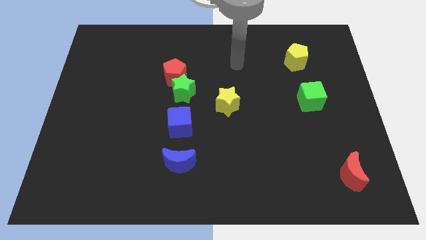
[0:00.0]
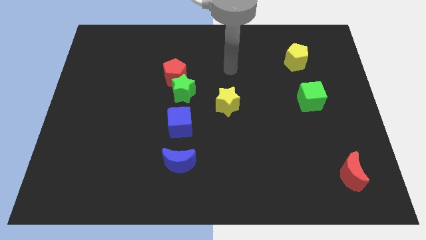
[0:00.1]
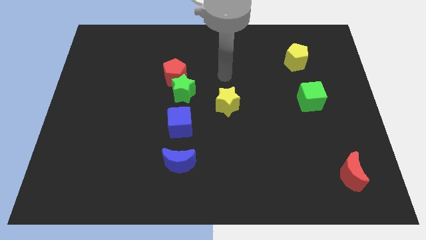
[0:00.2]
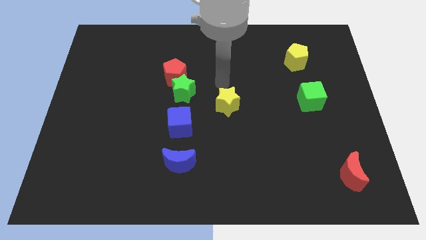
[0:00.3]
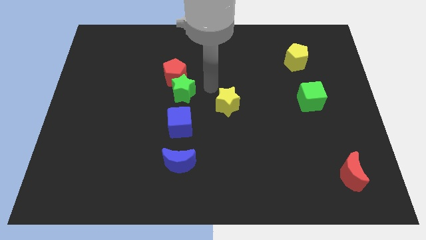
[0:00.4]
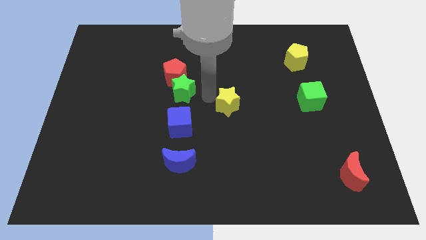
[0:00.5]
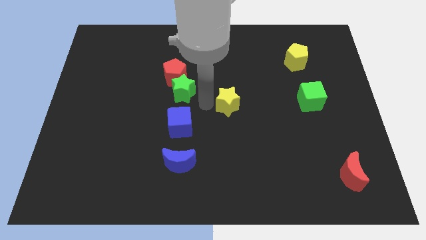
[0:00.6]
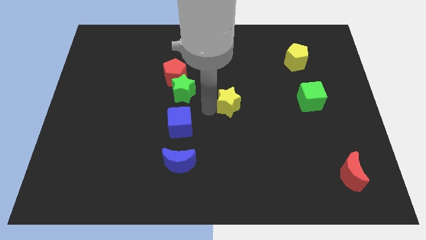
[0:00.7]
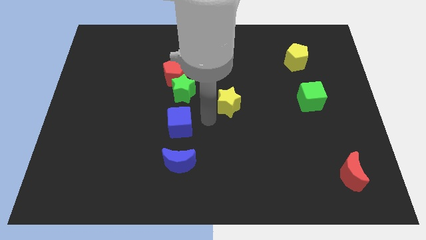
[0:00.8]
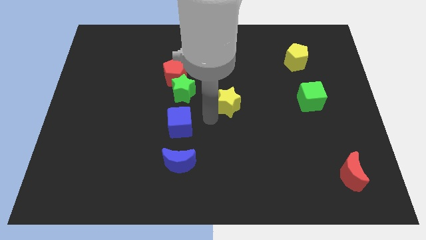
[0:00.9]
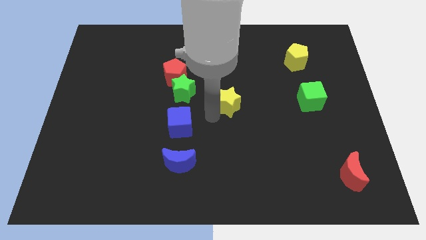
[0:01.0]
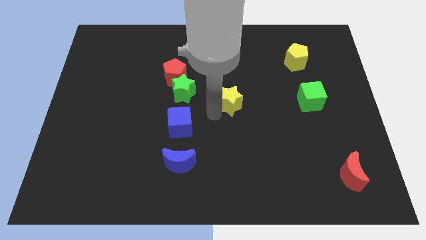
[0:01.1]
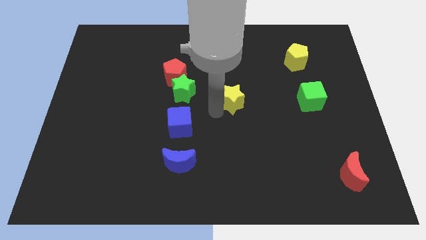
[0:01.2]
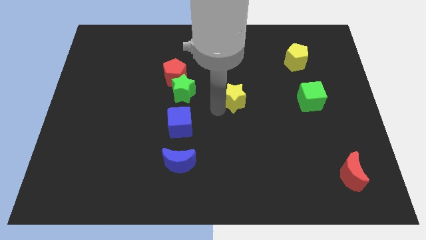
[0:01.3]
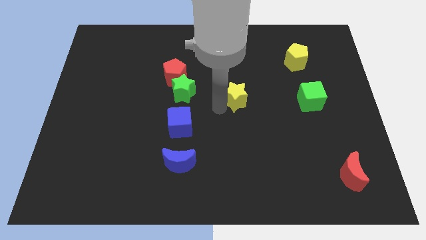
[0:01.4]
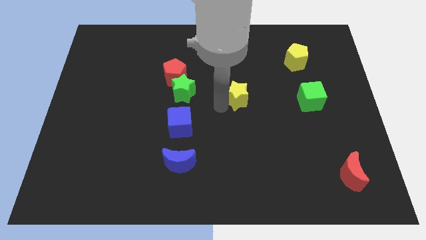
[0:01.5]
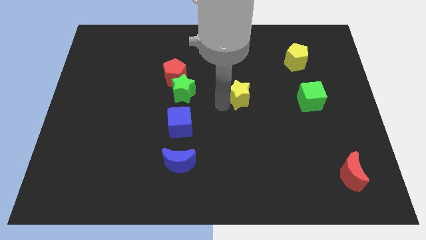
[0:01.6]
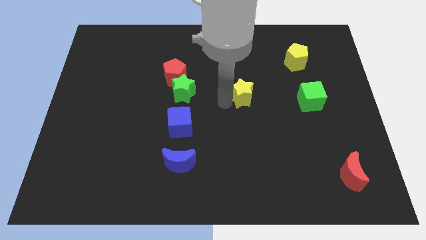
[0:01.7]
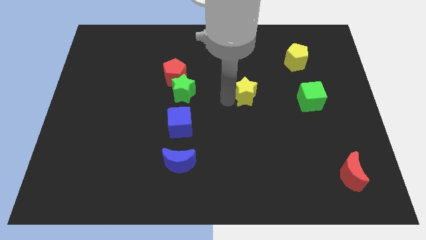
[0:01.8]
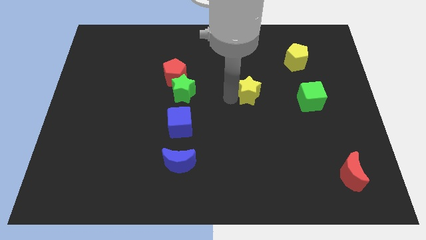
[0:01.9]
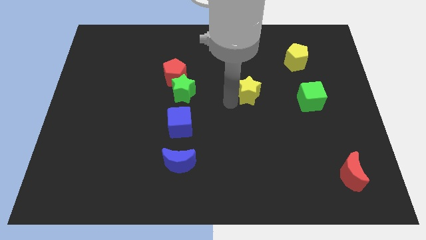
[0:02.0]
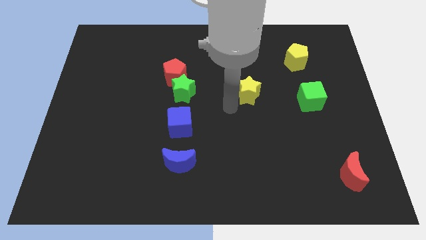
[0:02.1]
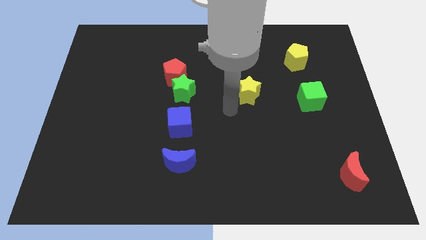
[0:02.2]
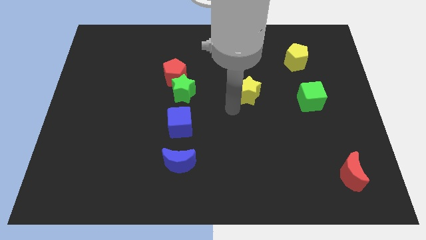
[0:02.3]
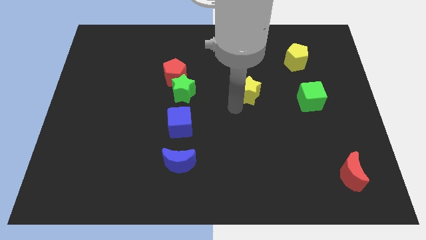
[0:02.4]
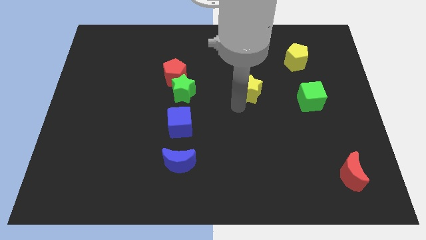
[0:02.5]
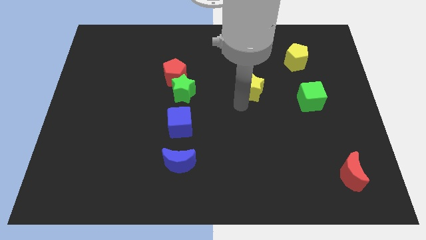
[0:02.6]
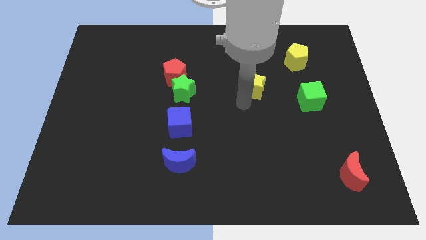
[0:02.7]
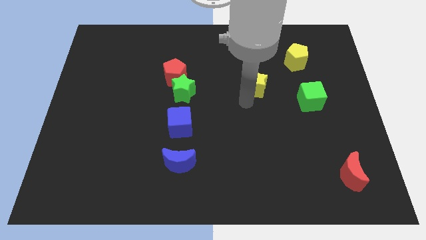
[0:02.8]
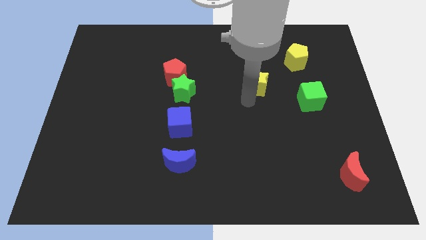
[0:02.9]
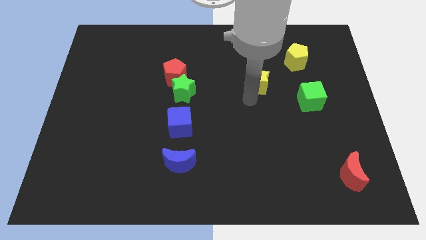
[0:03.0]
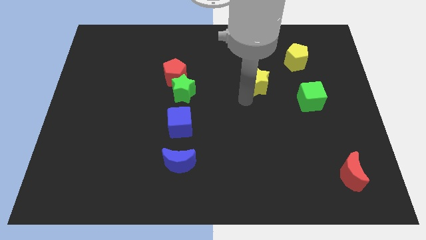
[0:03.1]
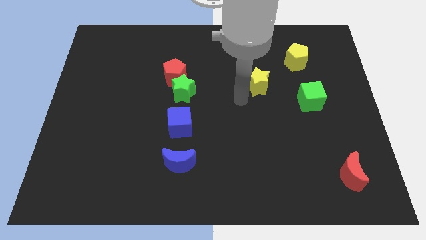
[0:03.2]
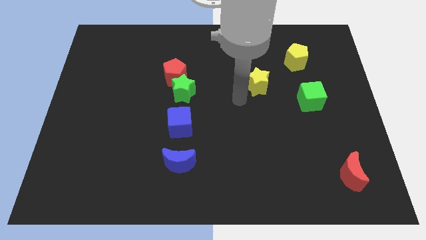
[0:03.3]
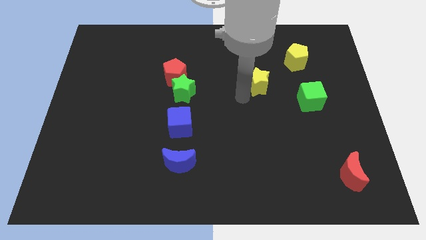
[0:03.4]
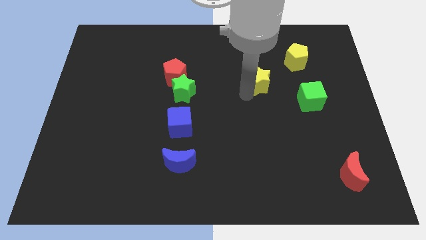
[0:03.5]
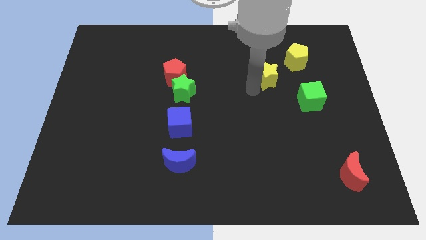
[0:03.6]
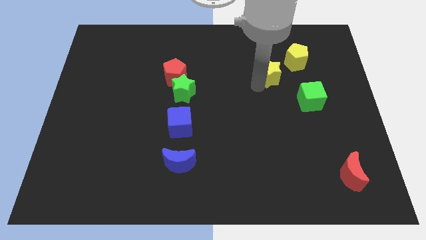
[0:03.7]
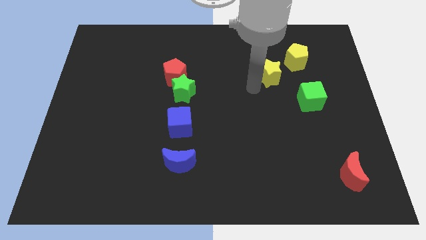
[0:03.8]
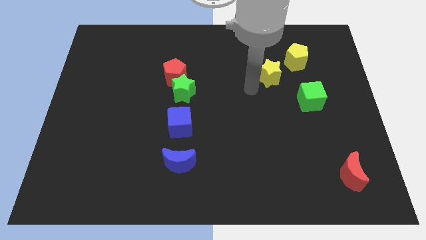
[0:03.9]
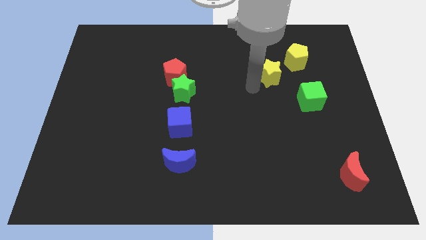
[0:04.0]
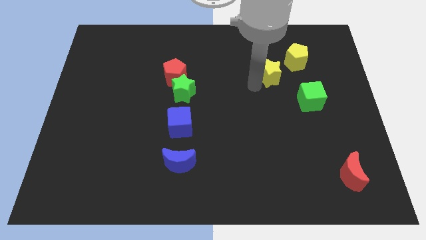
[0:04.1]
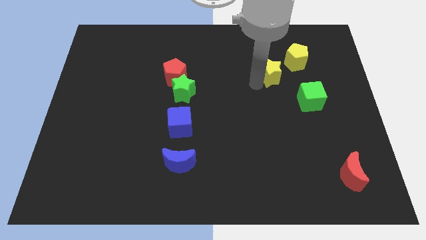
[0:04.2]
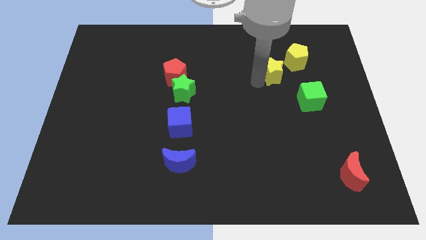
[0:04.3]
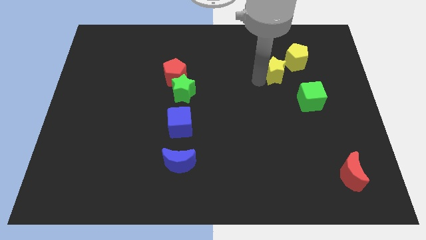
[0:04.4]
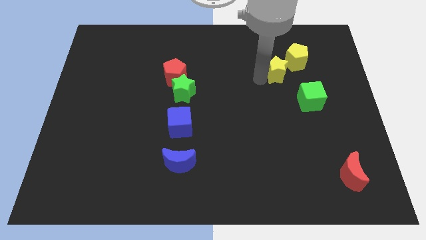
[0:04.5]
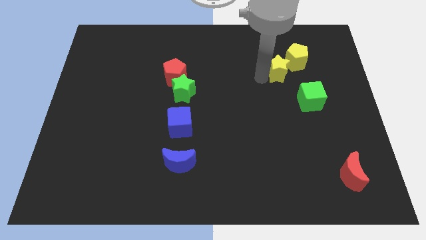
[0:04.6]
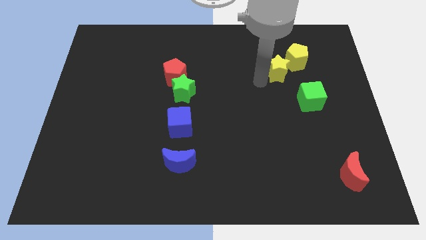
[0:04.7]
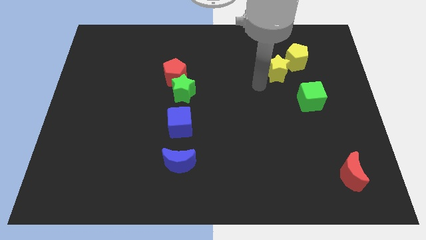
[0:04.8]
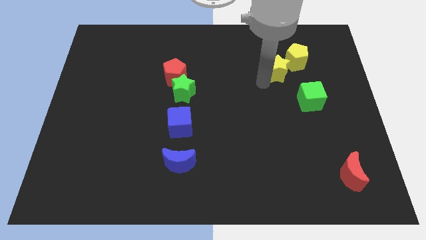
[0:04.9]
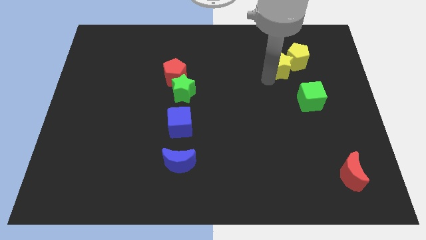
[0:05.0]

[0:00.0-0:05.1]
put the yellow star next to the yellow pentagon

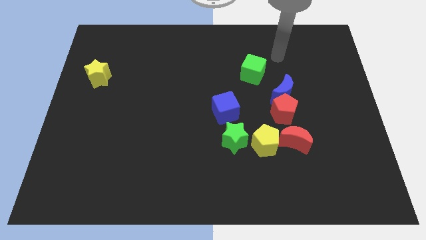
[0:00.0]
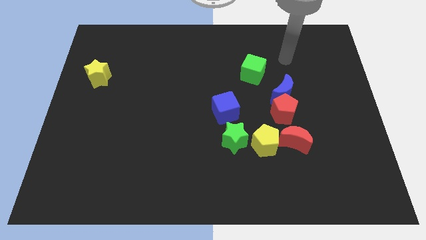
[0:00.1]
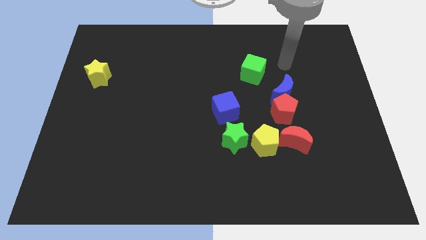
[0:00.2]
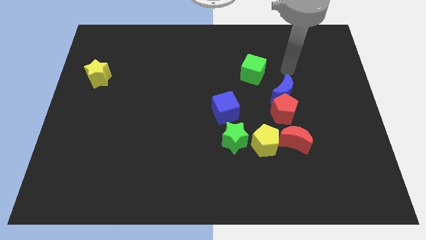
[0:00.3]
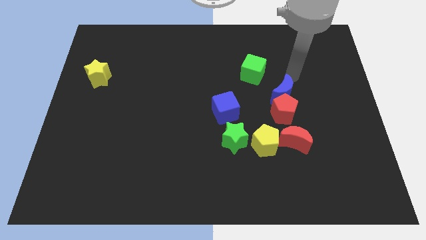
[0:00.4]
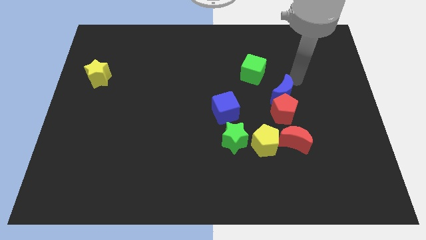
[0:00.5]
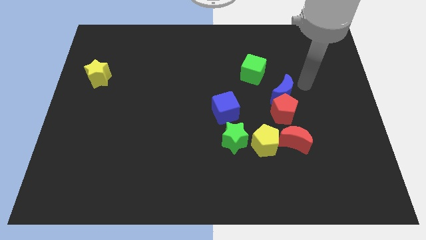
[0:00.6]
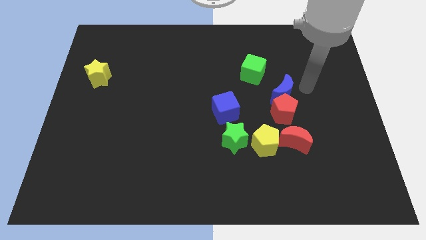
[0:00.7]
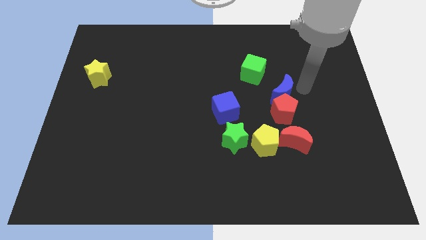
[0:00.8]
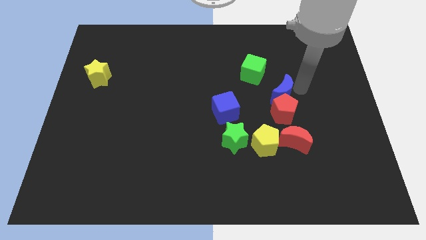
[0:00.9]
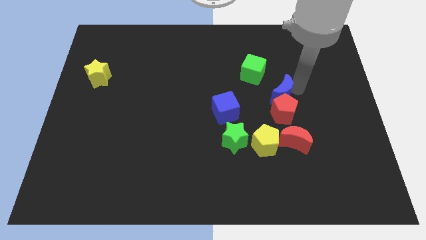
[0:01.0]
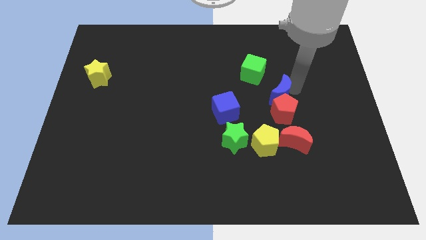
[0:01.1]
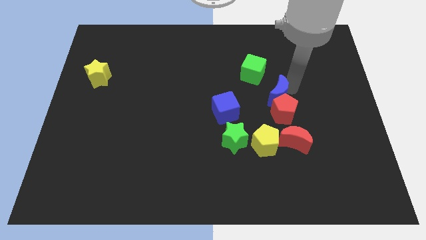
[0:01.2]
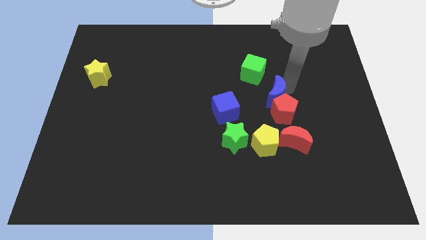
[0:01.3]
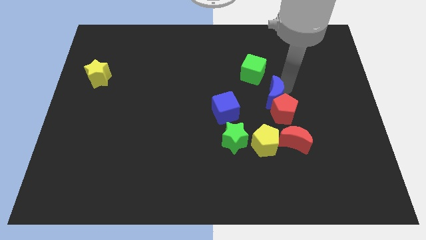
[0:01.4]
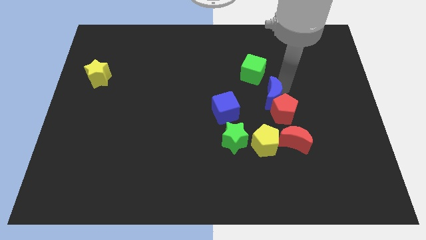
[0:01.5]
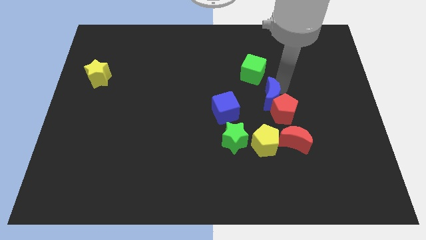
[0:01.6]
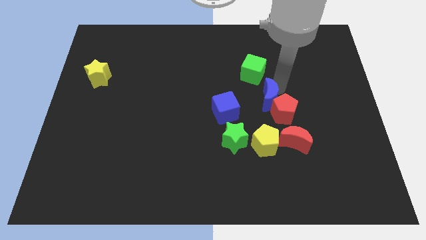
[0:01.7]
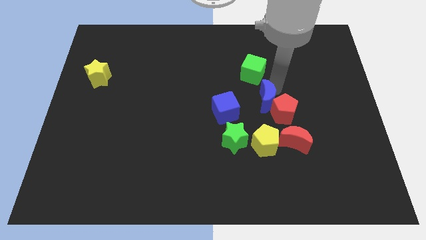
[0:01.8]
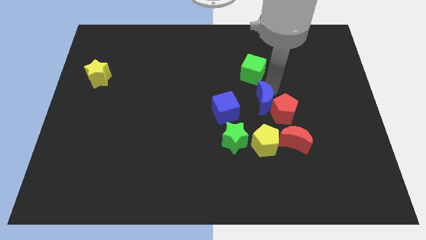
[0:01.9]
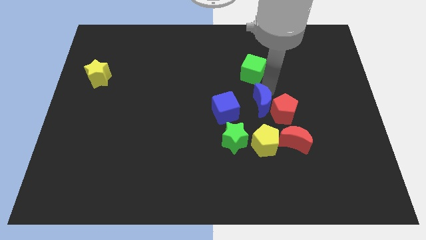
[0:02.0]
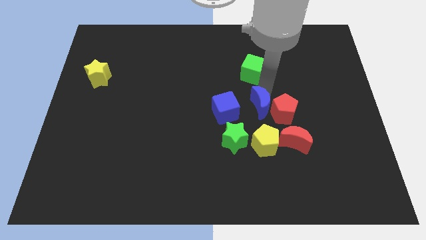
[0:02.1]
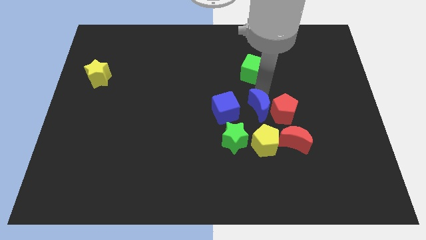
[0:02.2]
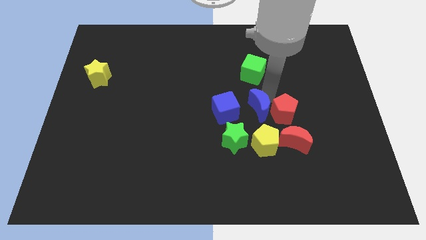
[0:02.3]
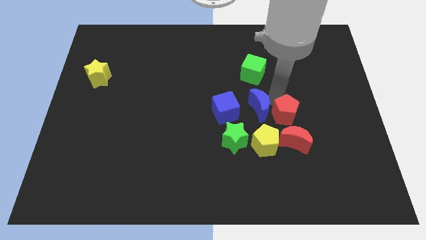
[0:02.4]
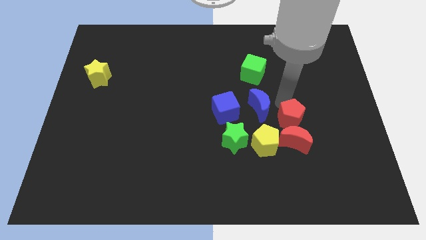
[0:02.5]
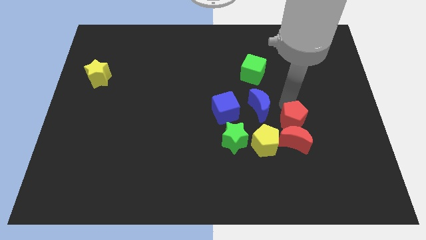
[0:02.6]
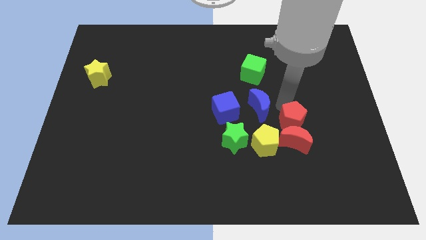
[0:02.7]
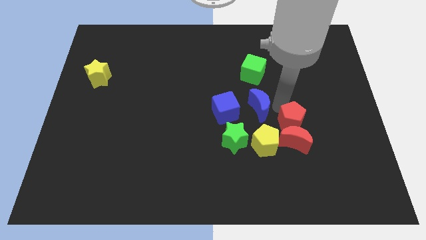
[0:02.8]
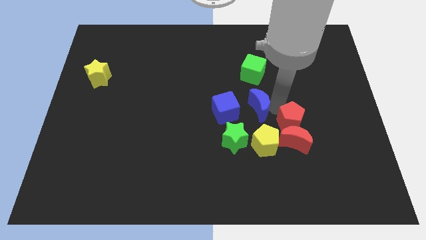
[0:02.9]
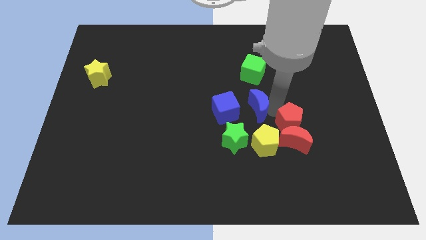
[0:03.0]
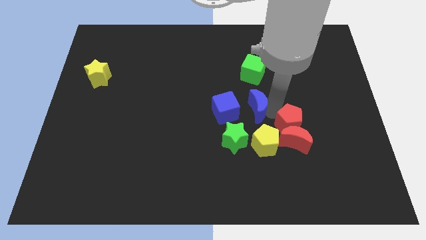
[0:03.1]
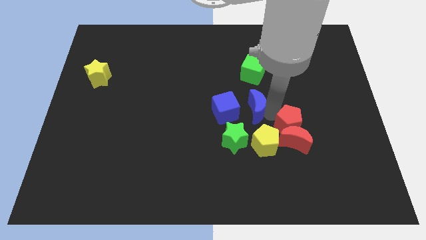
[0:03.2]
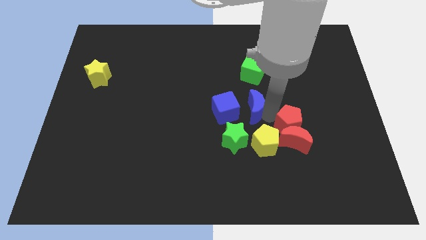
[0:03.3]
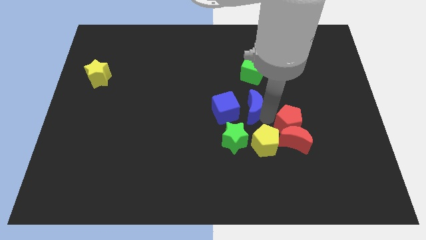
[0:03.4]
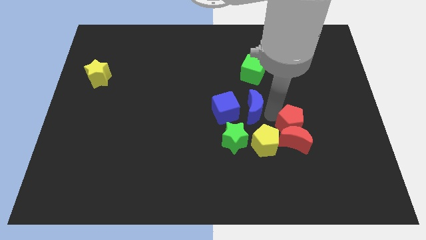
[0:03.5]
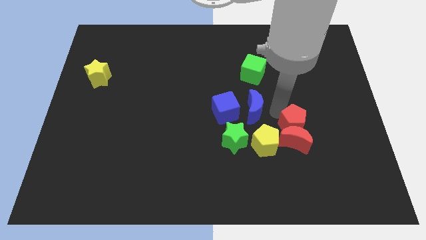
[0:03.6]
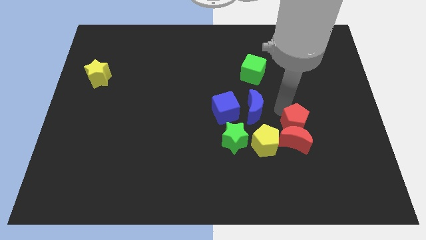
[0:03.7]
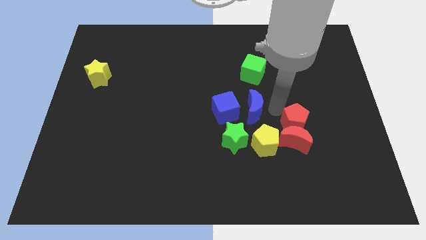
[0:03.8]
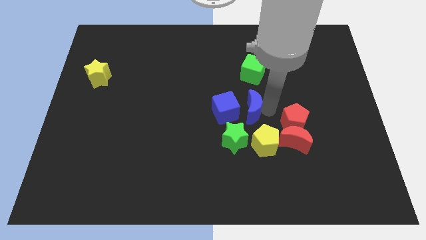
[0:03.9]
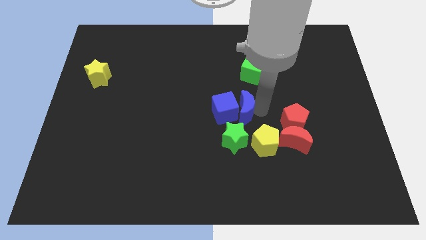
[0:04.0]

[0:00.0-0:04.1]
slide the blue moon to the blue cube
